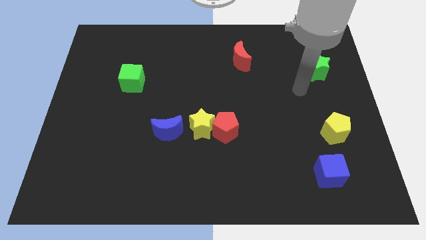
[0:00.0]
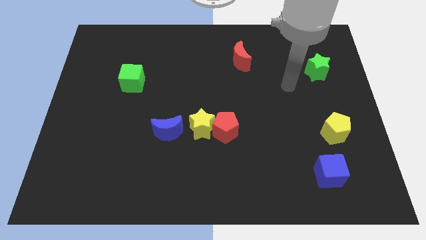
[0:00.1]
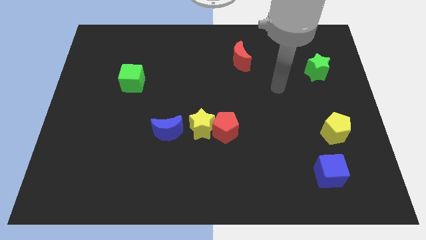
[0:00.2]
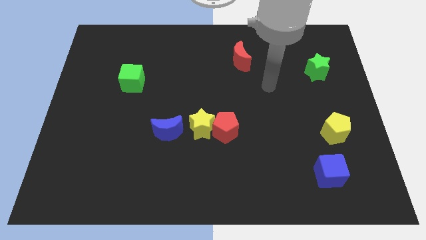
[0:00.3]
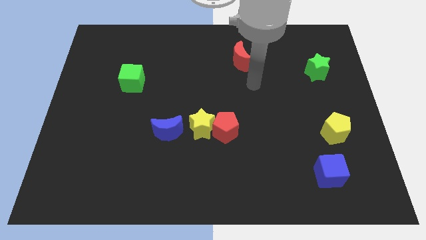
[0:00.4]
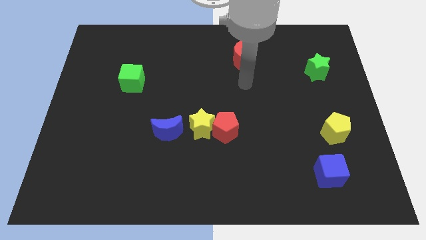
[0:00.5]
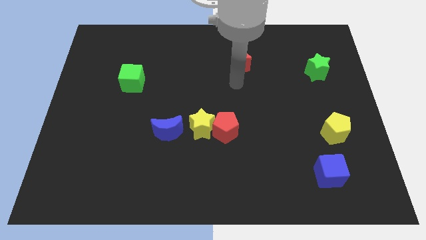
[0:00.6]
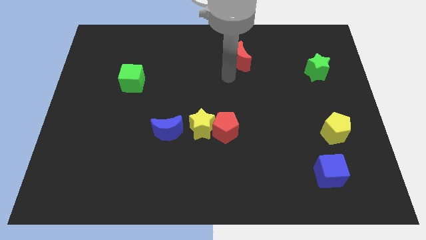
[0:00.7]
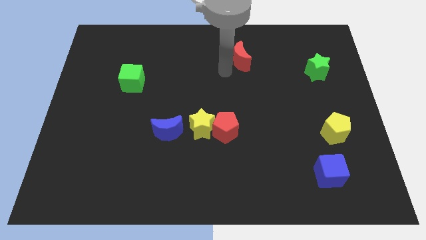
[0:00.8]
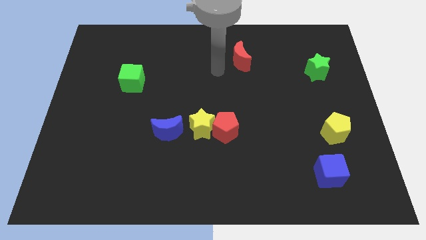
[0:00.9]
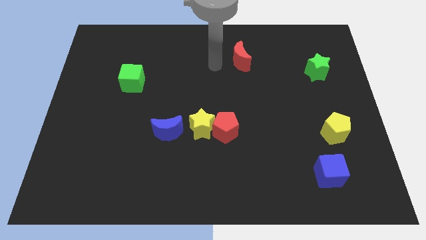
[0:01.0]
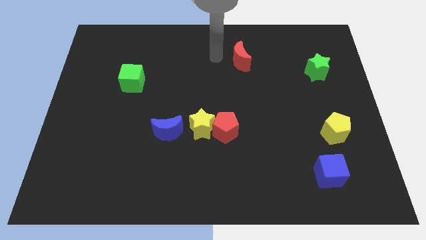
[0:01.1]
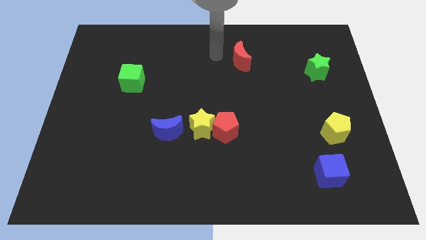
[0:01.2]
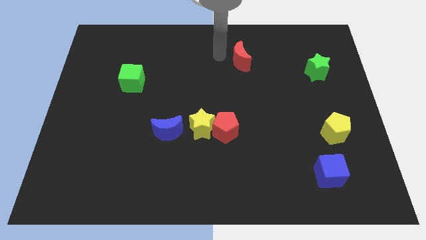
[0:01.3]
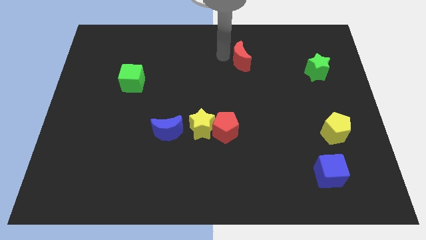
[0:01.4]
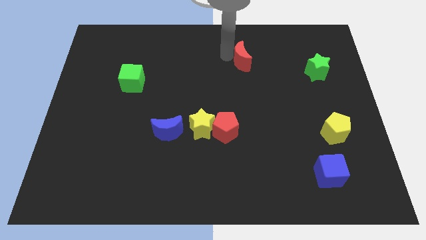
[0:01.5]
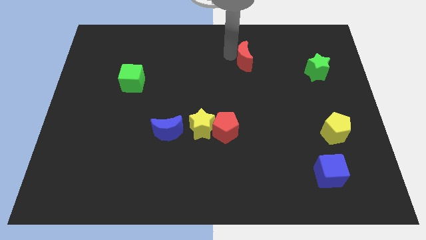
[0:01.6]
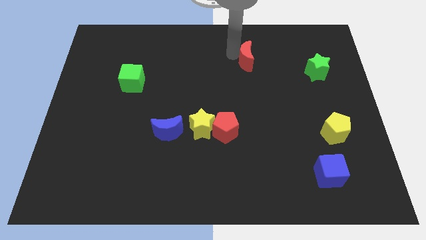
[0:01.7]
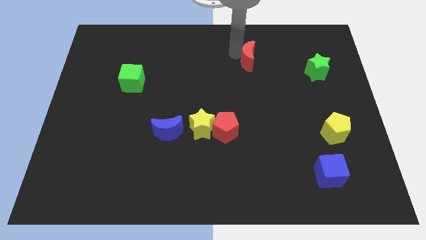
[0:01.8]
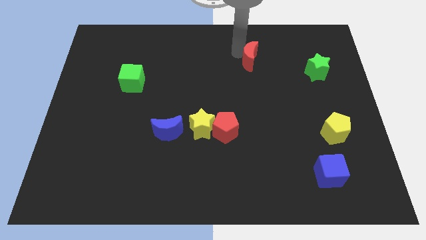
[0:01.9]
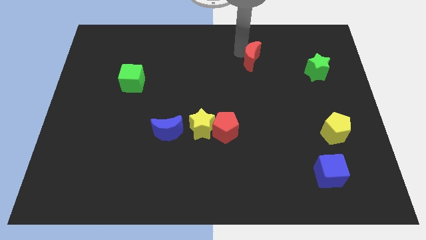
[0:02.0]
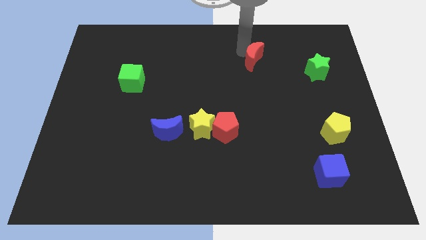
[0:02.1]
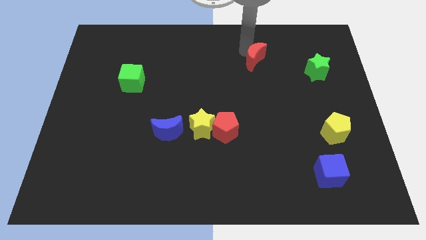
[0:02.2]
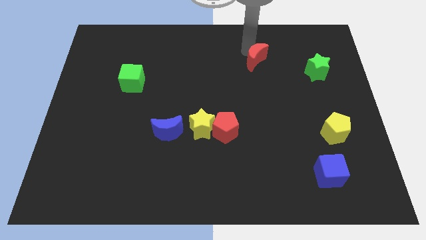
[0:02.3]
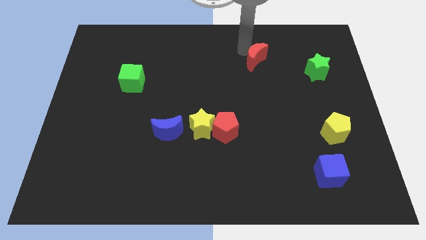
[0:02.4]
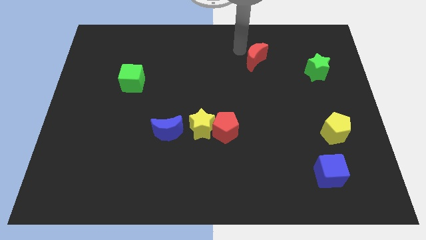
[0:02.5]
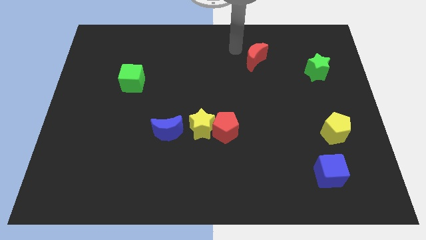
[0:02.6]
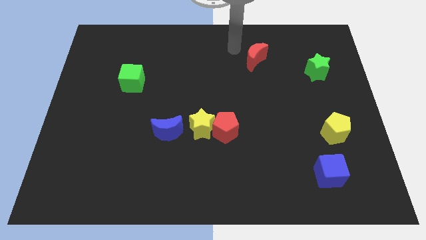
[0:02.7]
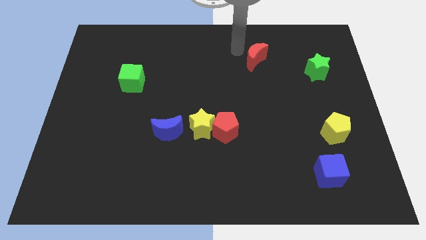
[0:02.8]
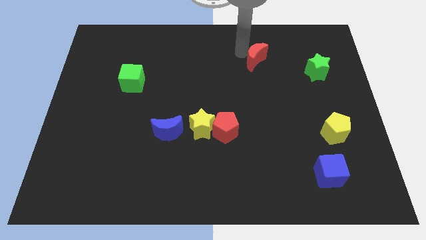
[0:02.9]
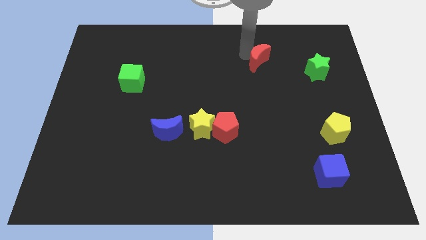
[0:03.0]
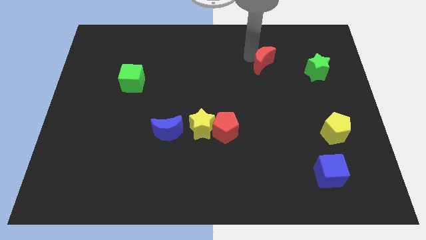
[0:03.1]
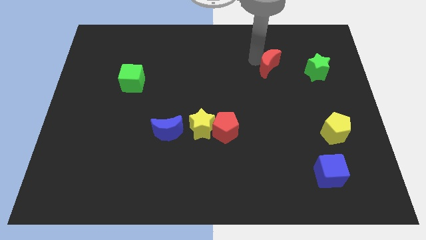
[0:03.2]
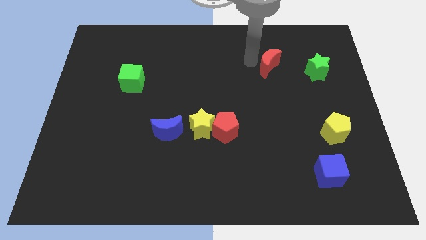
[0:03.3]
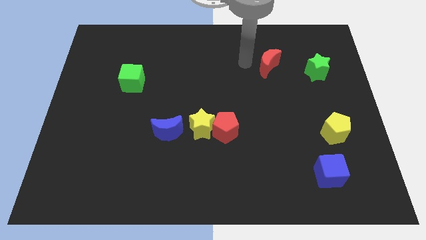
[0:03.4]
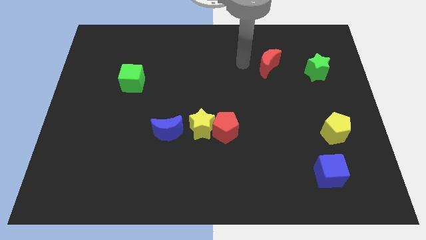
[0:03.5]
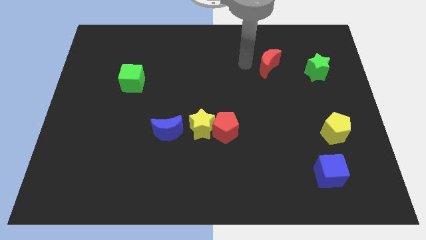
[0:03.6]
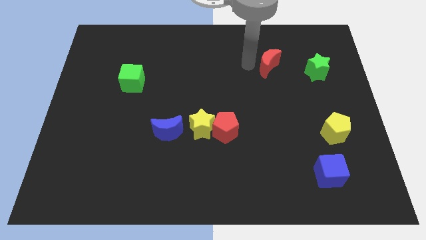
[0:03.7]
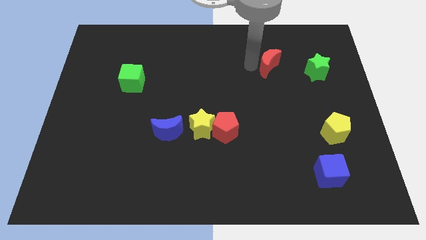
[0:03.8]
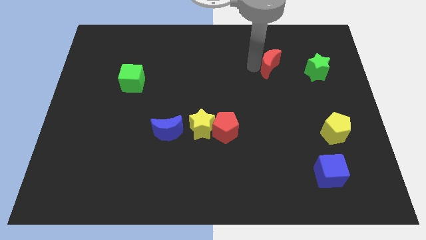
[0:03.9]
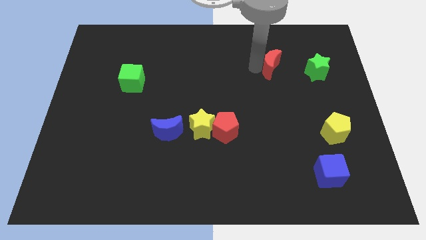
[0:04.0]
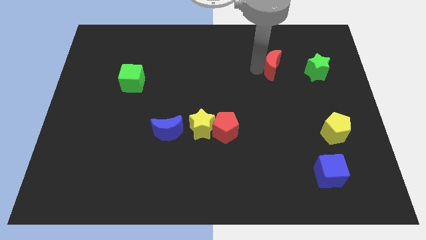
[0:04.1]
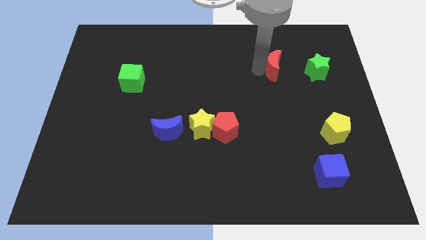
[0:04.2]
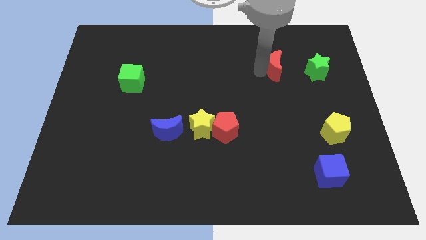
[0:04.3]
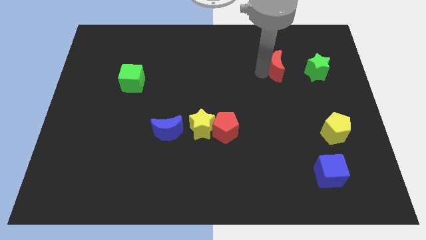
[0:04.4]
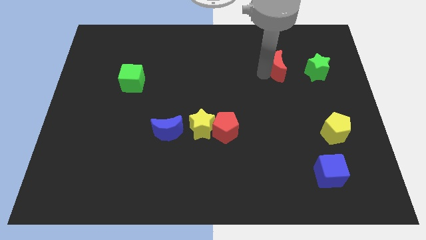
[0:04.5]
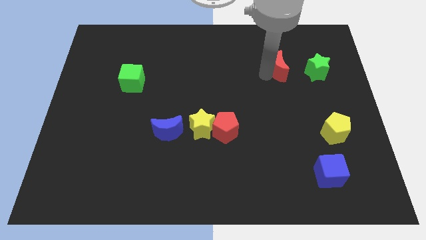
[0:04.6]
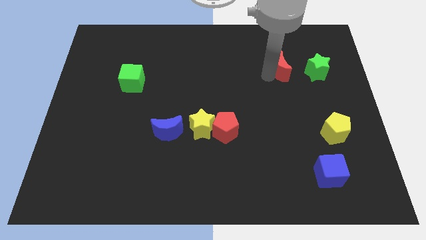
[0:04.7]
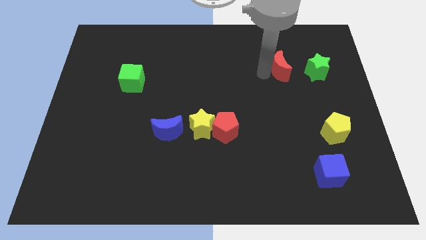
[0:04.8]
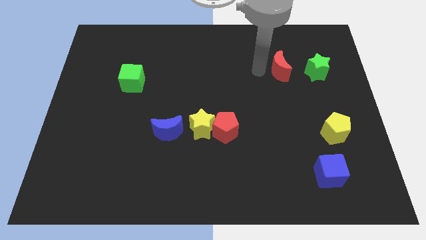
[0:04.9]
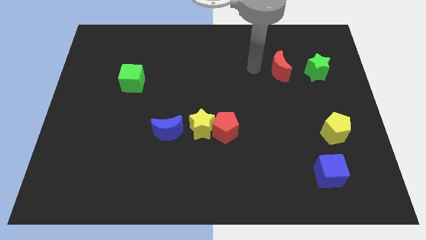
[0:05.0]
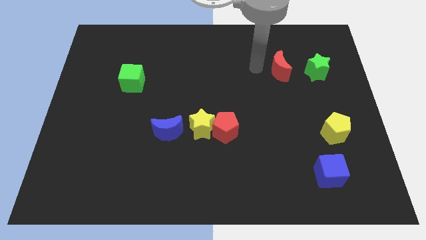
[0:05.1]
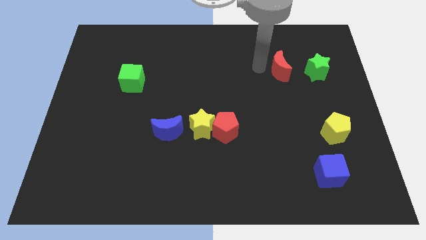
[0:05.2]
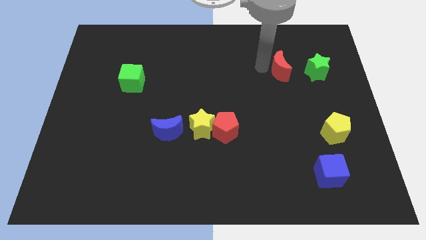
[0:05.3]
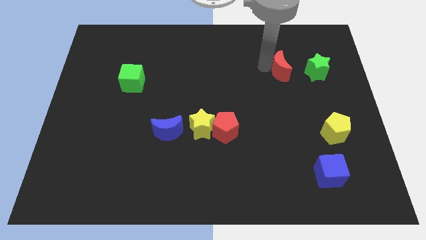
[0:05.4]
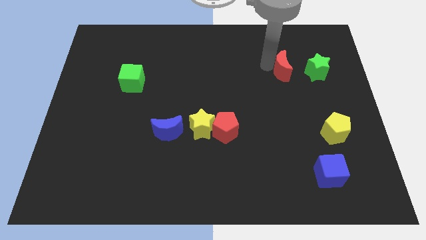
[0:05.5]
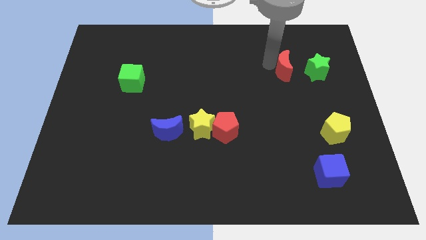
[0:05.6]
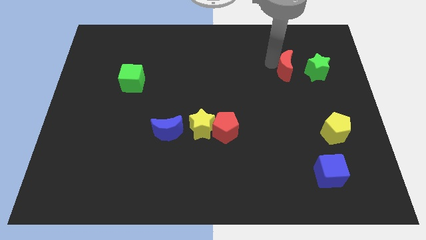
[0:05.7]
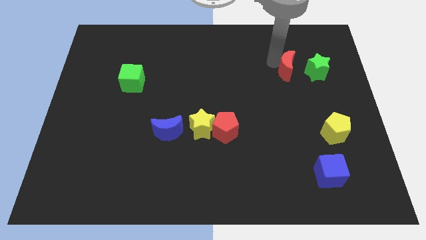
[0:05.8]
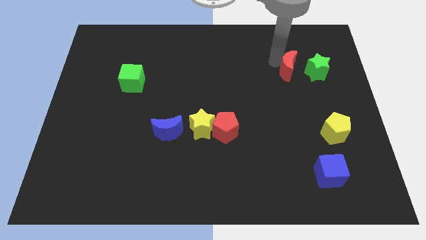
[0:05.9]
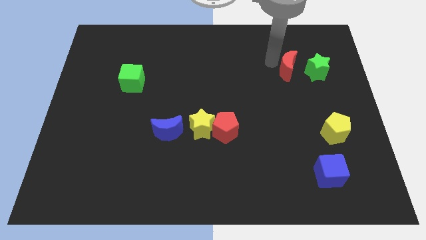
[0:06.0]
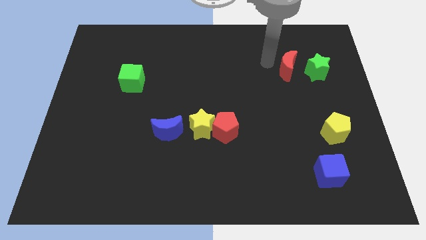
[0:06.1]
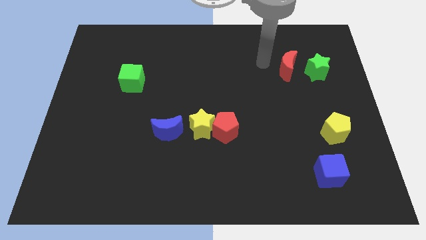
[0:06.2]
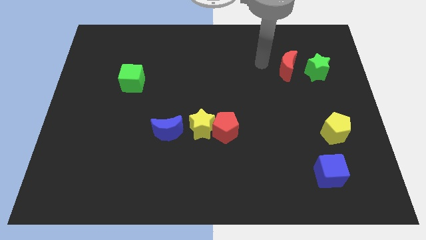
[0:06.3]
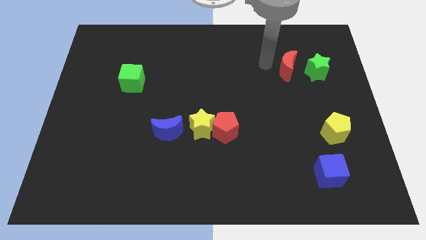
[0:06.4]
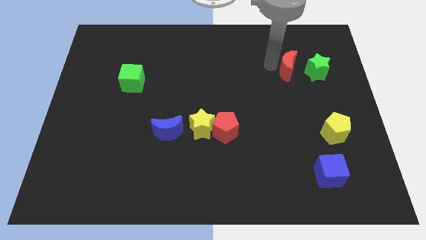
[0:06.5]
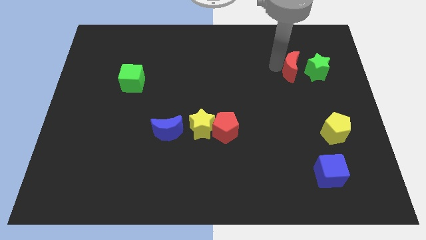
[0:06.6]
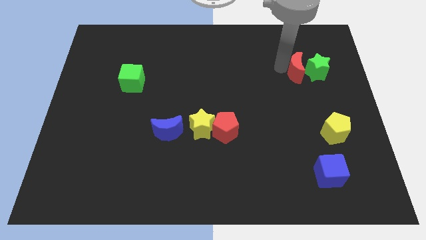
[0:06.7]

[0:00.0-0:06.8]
slide the red moon next to the green star
